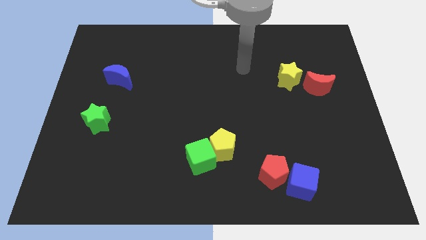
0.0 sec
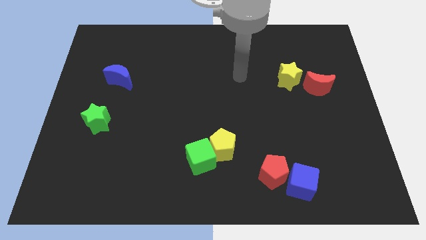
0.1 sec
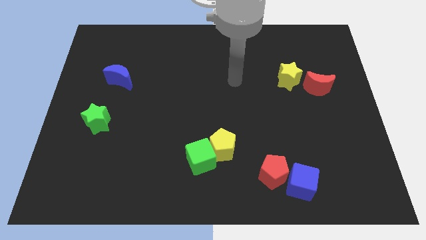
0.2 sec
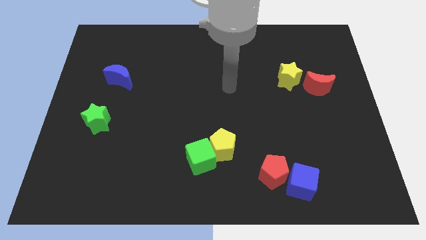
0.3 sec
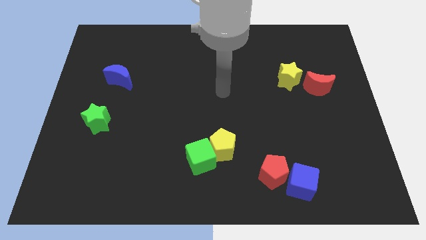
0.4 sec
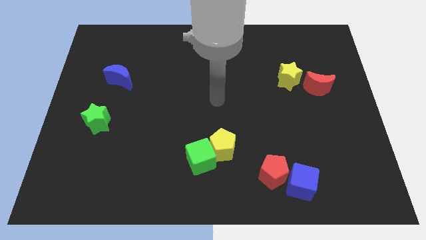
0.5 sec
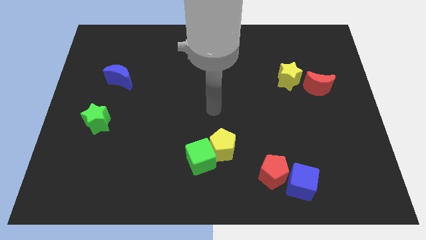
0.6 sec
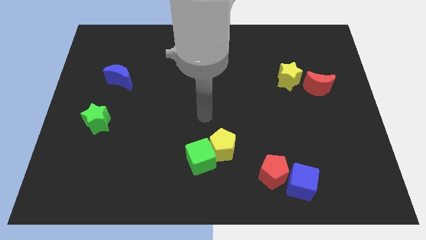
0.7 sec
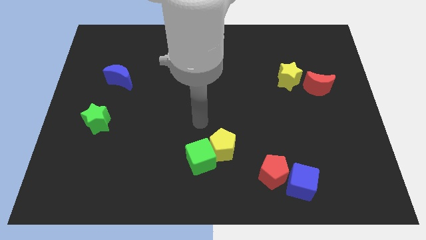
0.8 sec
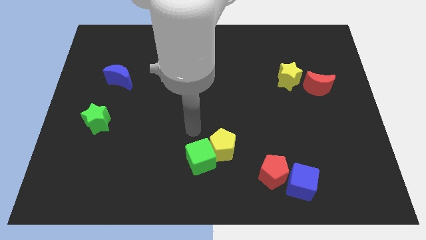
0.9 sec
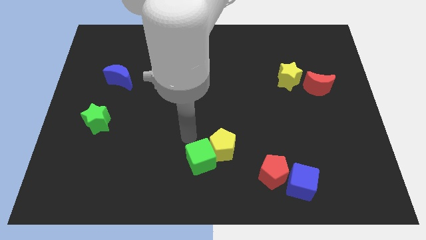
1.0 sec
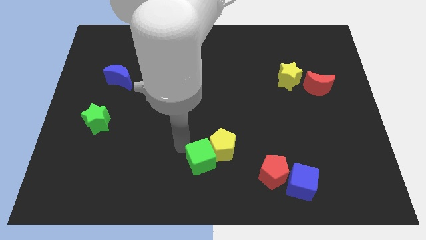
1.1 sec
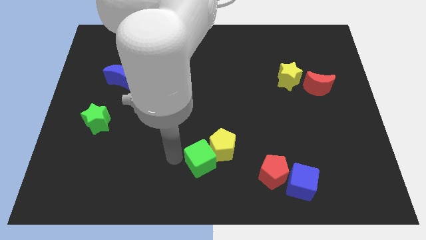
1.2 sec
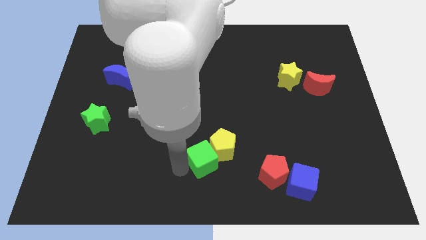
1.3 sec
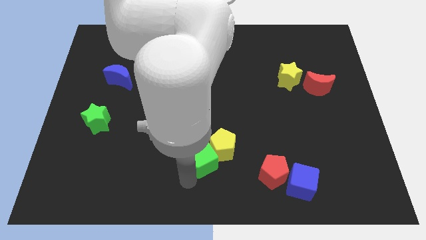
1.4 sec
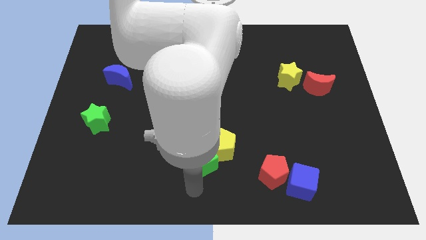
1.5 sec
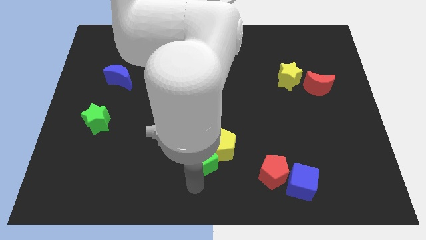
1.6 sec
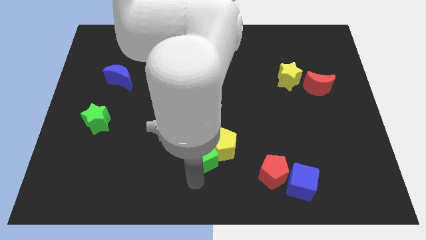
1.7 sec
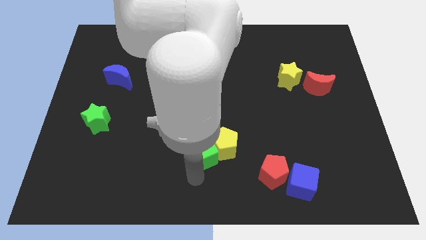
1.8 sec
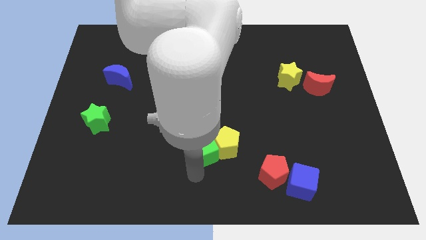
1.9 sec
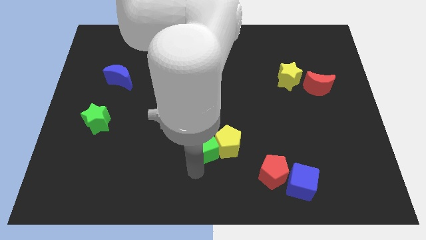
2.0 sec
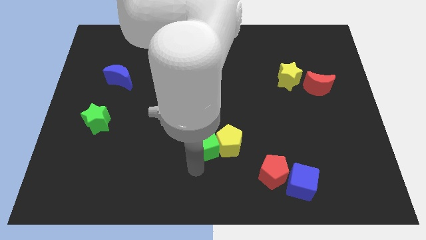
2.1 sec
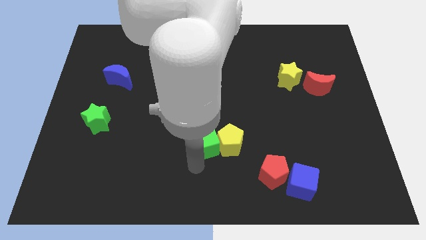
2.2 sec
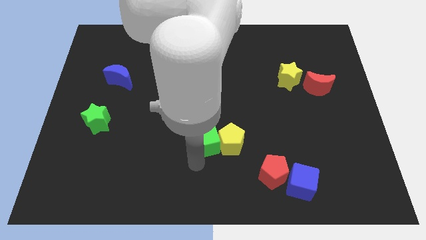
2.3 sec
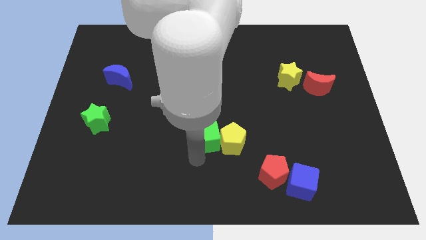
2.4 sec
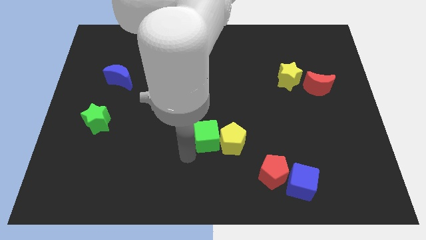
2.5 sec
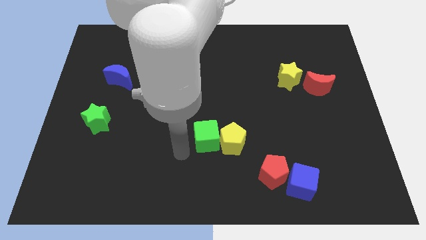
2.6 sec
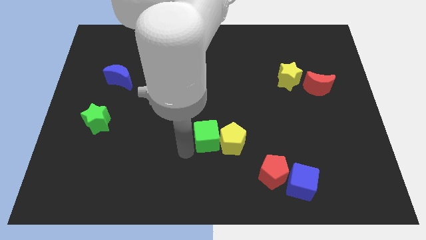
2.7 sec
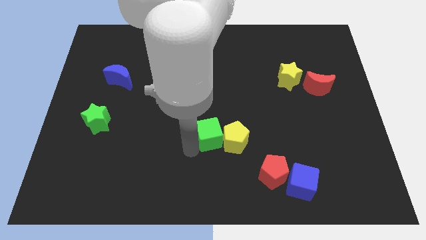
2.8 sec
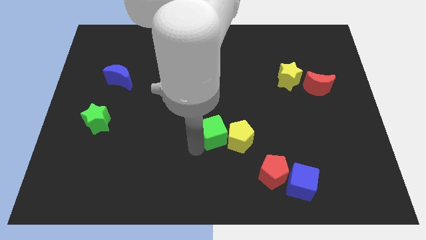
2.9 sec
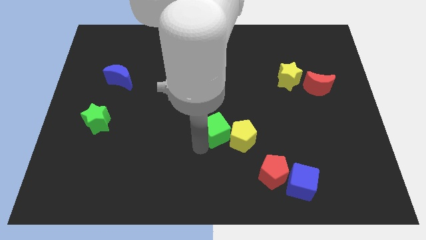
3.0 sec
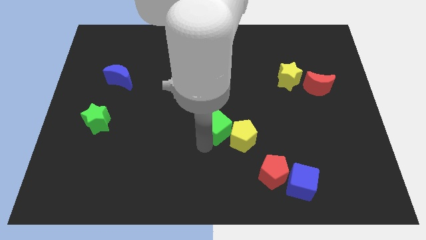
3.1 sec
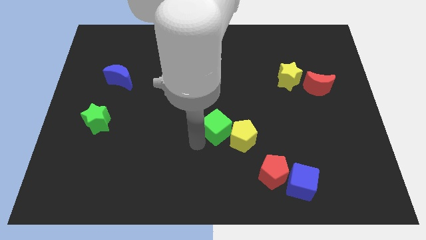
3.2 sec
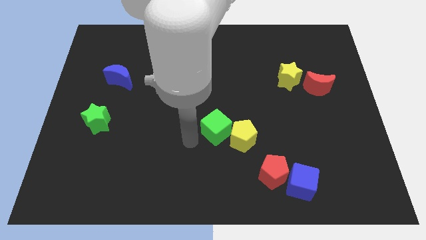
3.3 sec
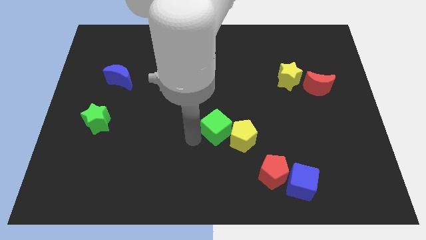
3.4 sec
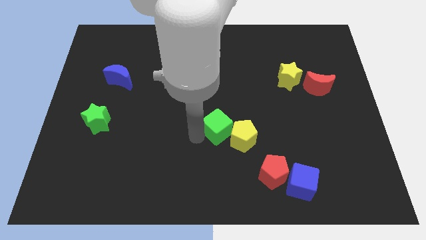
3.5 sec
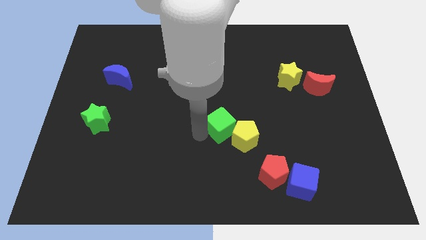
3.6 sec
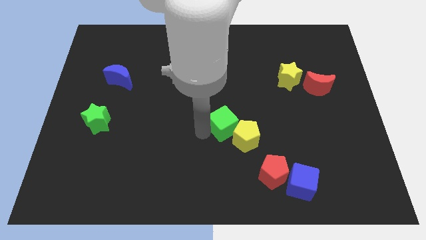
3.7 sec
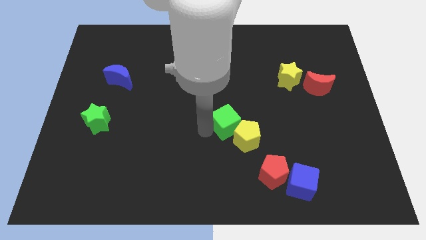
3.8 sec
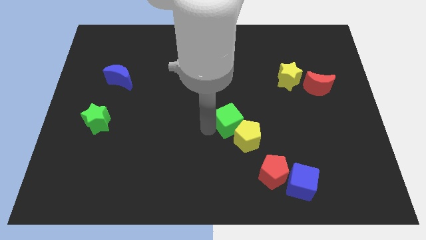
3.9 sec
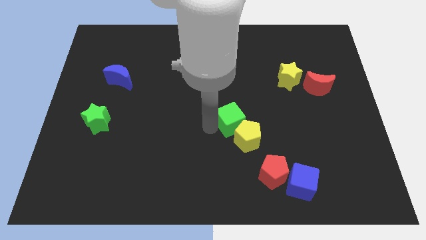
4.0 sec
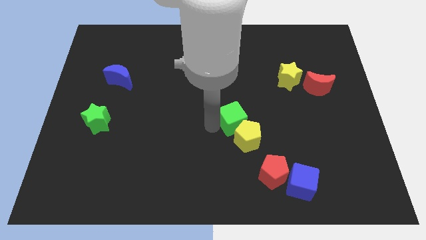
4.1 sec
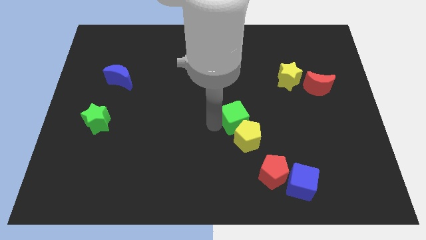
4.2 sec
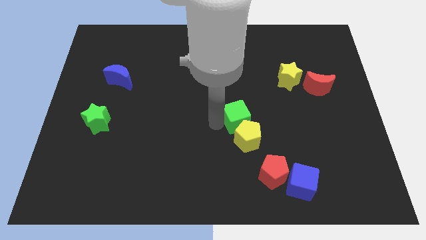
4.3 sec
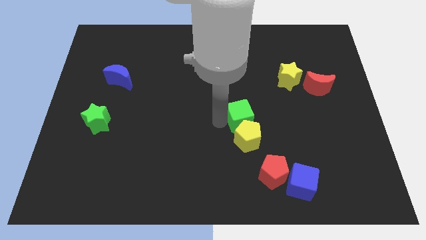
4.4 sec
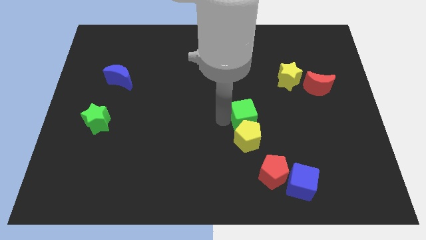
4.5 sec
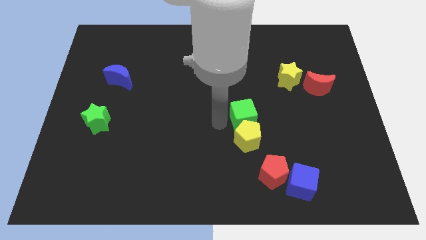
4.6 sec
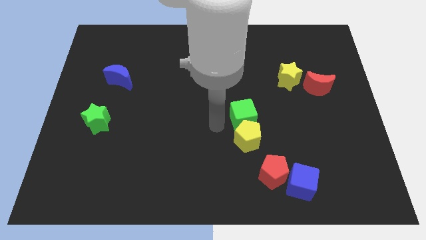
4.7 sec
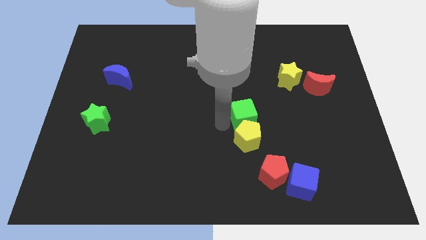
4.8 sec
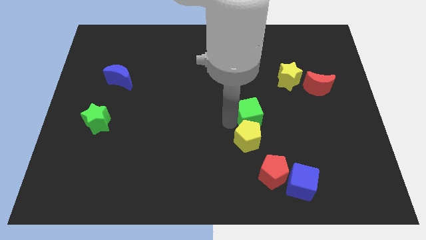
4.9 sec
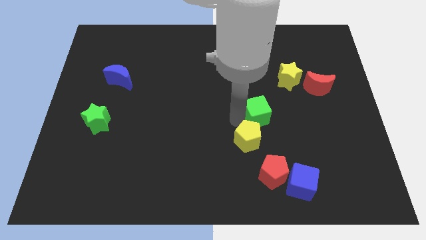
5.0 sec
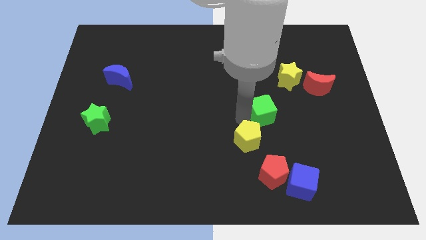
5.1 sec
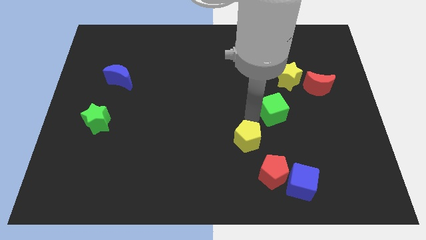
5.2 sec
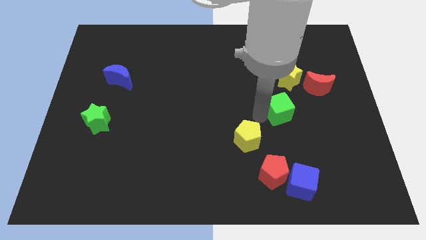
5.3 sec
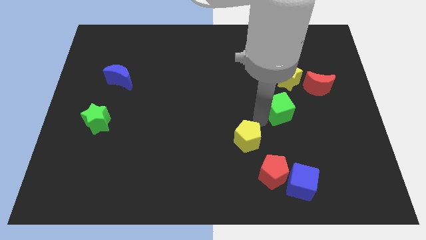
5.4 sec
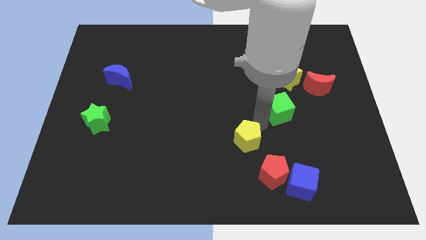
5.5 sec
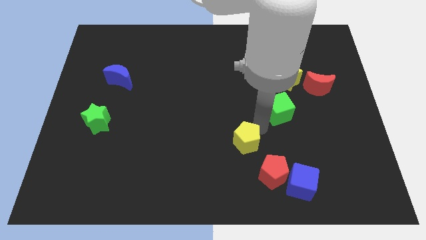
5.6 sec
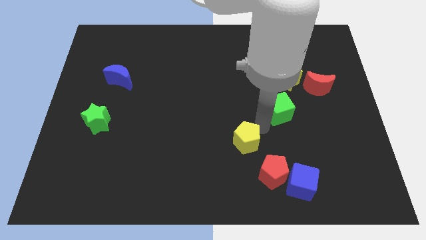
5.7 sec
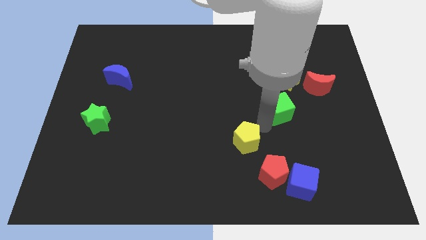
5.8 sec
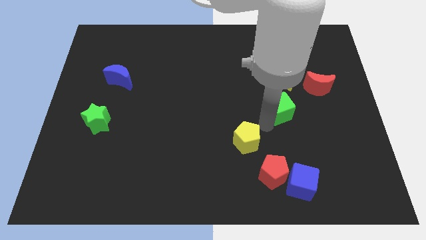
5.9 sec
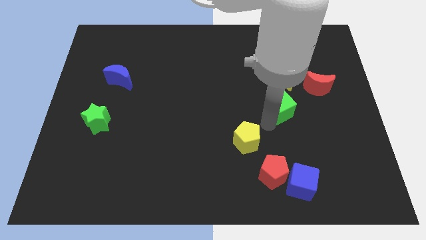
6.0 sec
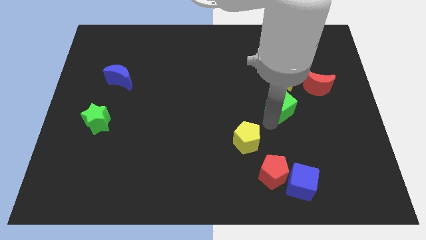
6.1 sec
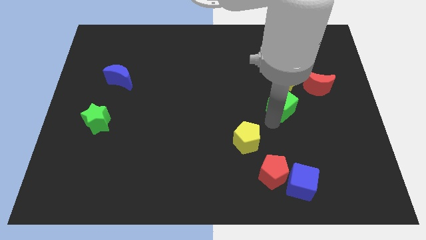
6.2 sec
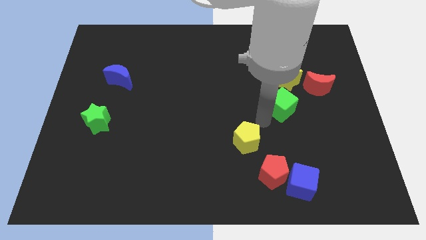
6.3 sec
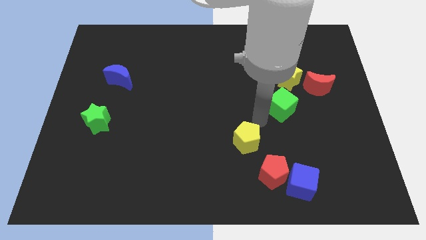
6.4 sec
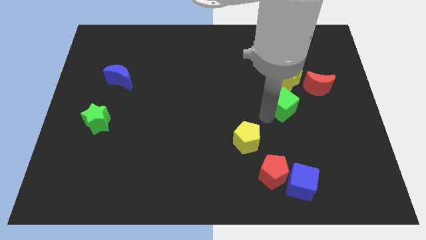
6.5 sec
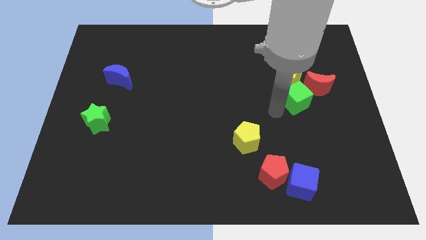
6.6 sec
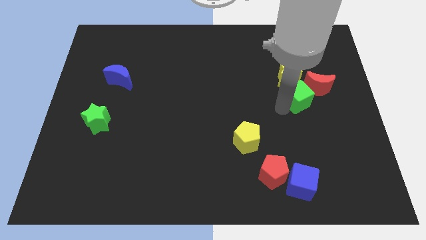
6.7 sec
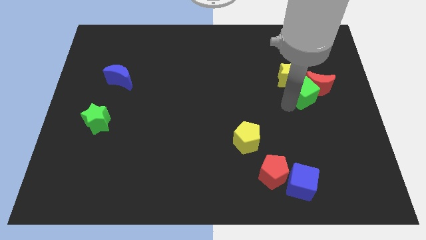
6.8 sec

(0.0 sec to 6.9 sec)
move the green cube to the red moon
